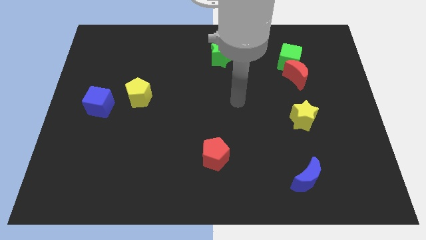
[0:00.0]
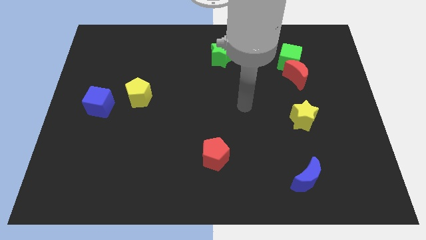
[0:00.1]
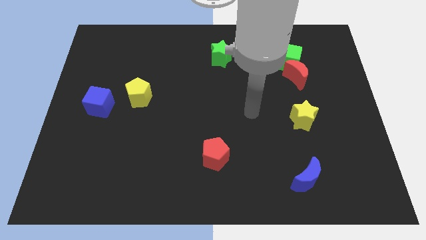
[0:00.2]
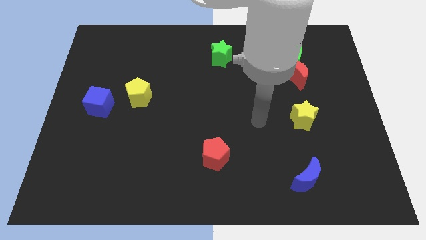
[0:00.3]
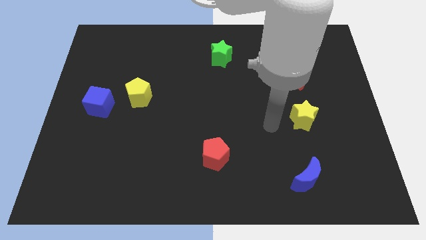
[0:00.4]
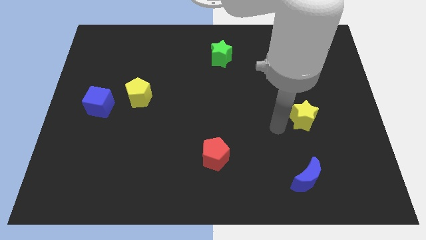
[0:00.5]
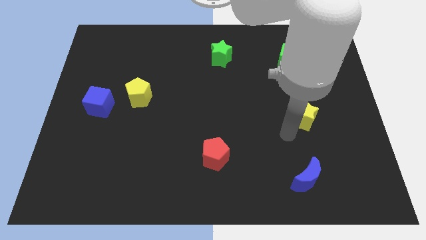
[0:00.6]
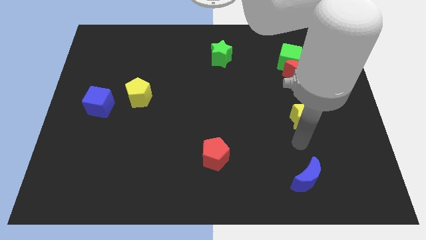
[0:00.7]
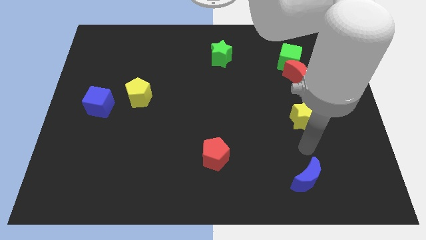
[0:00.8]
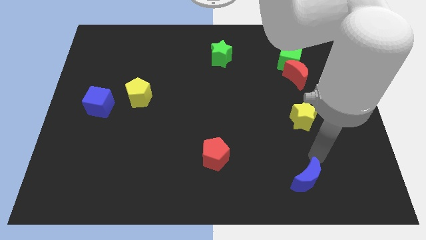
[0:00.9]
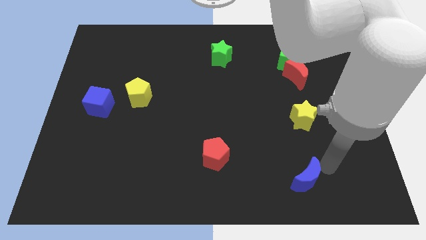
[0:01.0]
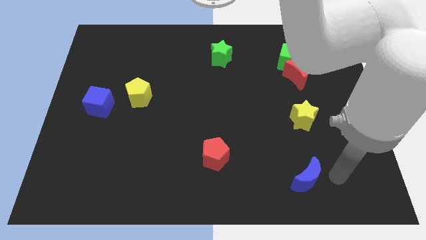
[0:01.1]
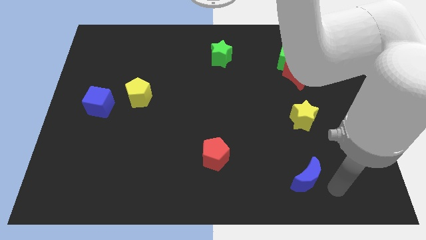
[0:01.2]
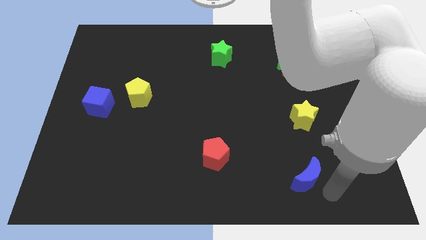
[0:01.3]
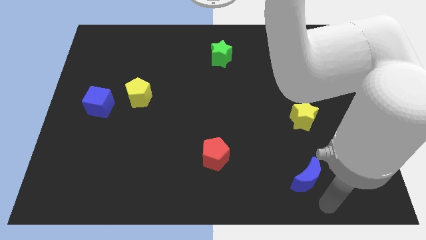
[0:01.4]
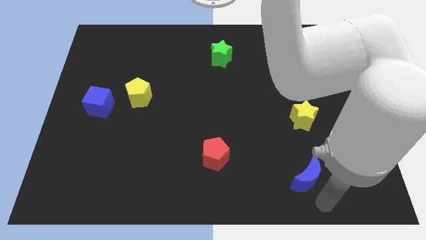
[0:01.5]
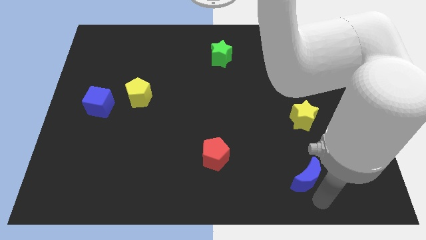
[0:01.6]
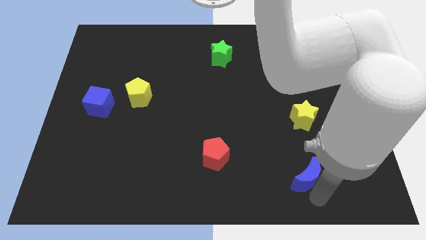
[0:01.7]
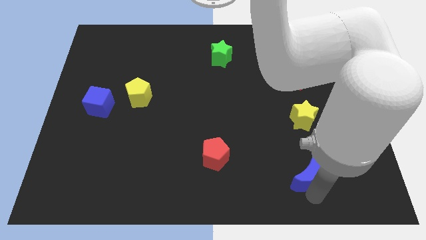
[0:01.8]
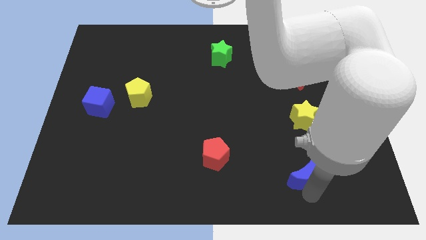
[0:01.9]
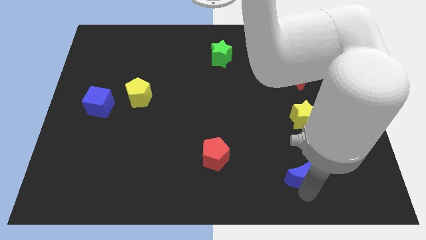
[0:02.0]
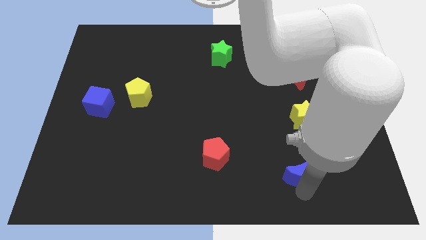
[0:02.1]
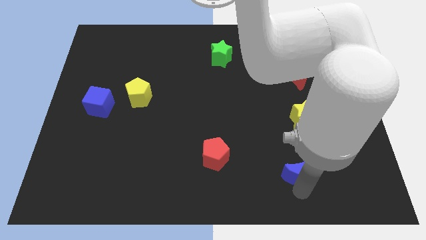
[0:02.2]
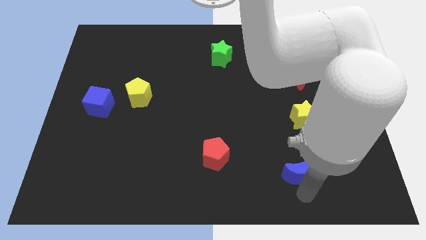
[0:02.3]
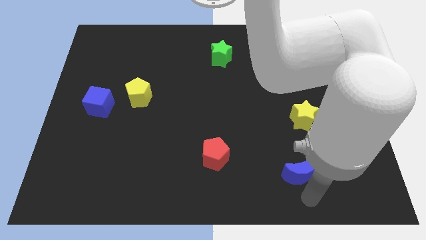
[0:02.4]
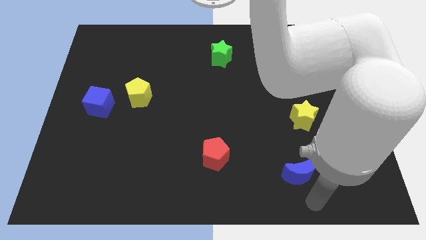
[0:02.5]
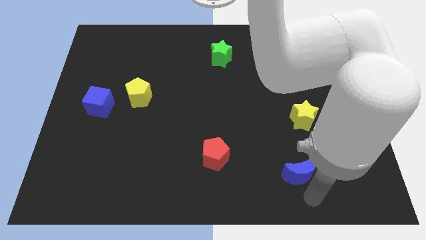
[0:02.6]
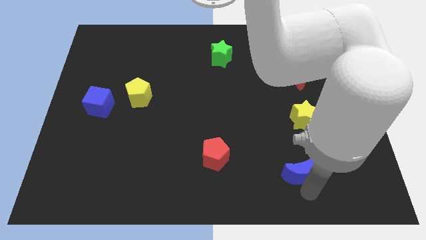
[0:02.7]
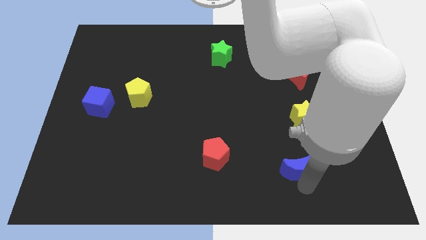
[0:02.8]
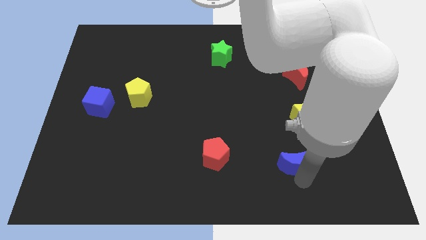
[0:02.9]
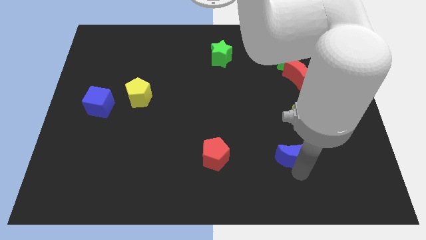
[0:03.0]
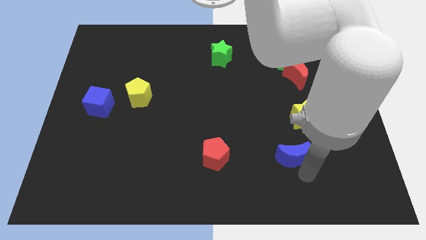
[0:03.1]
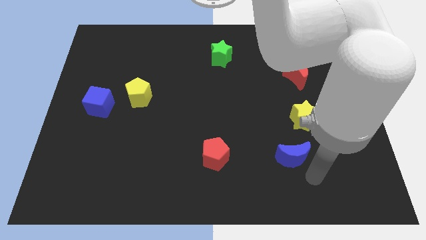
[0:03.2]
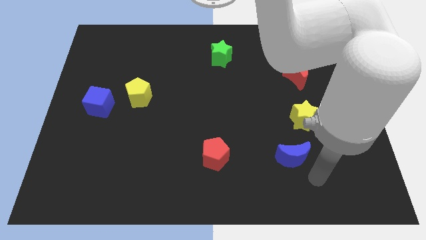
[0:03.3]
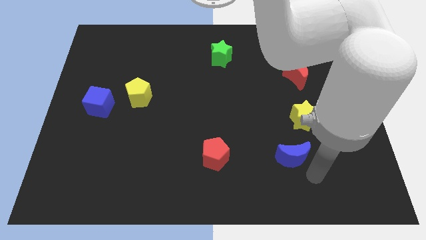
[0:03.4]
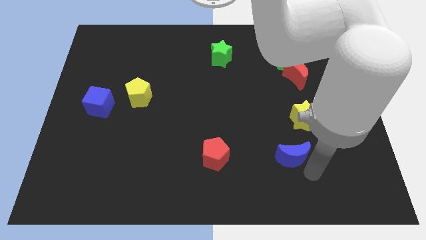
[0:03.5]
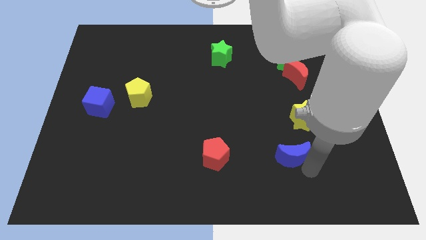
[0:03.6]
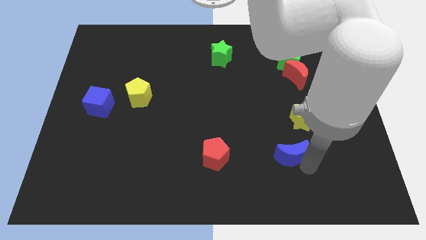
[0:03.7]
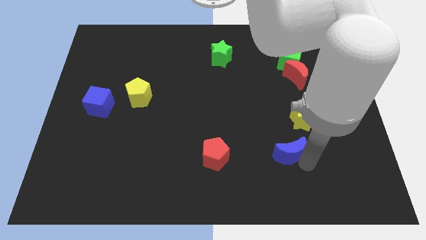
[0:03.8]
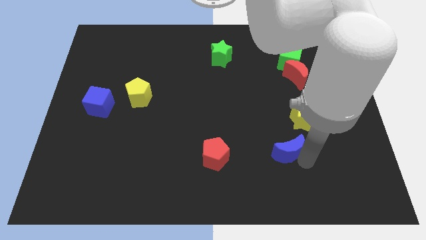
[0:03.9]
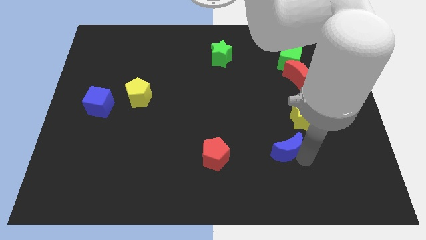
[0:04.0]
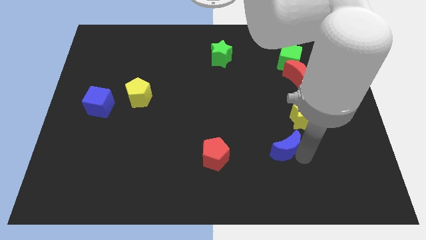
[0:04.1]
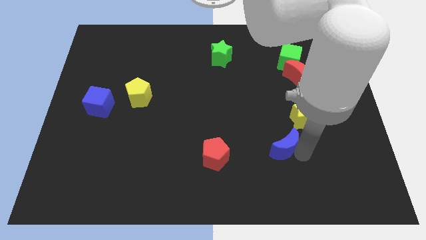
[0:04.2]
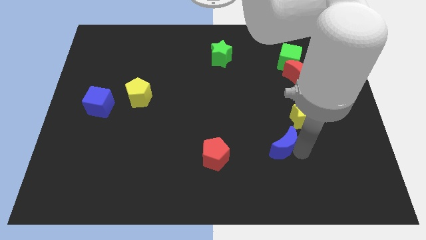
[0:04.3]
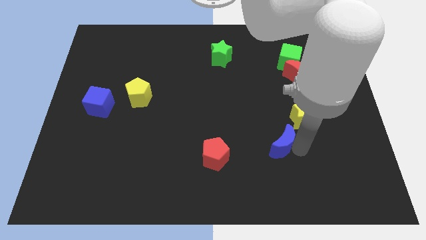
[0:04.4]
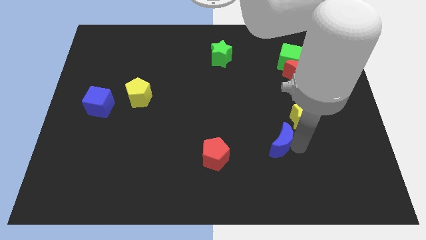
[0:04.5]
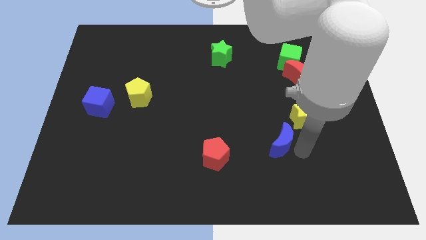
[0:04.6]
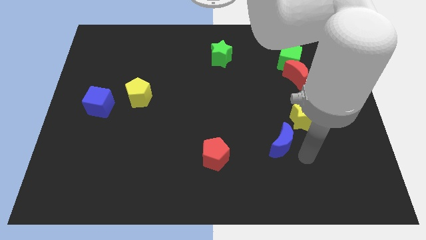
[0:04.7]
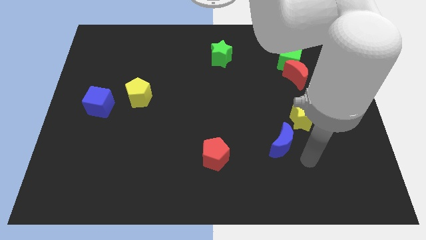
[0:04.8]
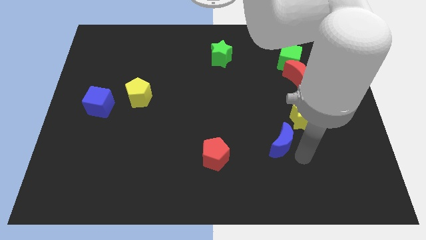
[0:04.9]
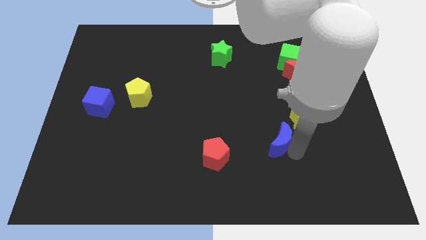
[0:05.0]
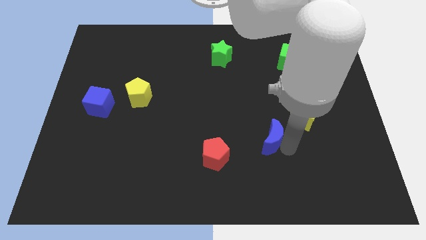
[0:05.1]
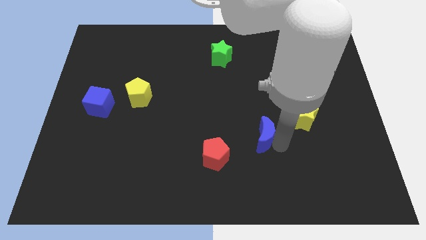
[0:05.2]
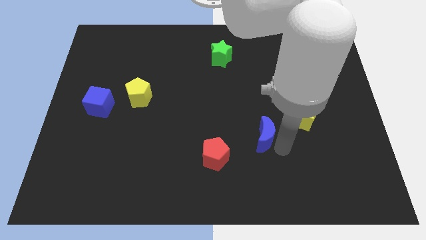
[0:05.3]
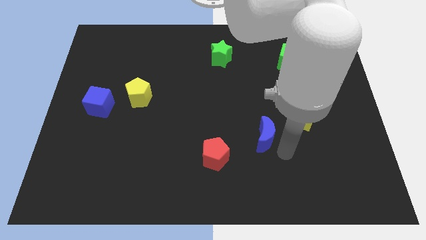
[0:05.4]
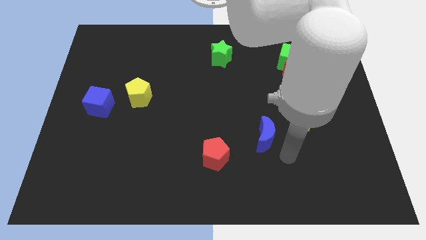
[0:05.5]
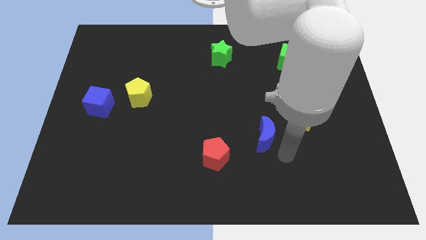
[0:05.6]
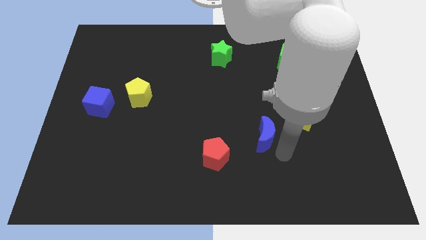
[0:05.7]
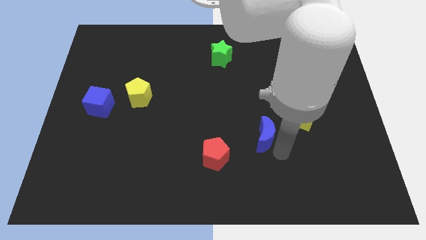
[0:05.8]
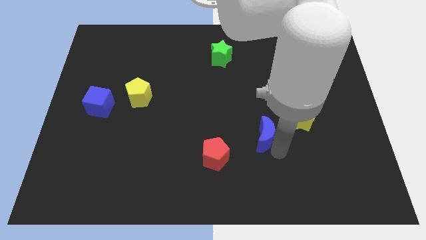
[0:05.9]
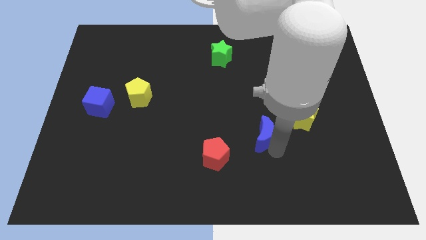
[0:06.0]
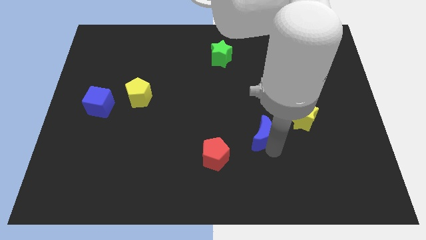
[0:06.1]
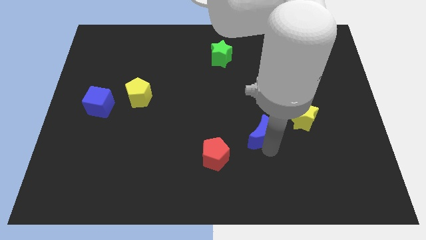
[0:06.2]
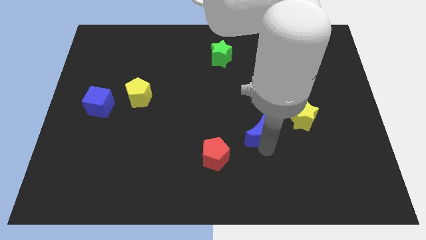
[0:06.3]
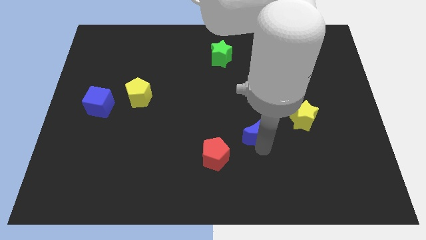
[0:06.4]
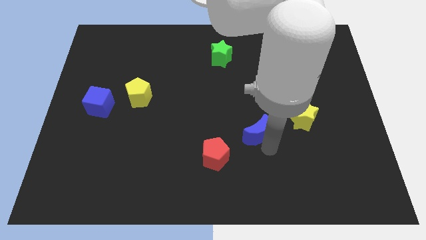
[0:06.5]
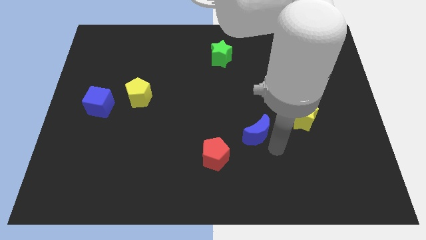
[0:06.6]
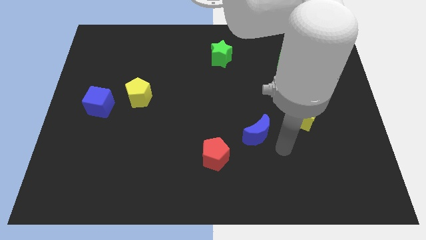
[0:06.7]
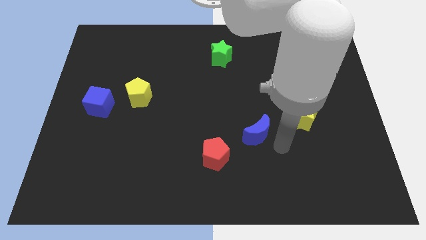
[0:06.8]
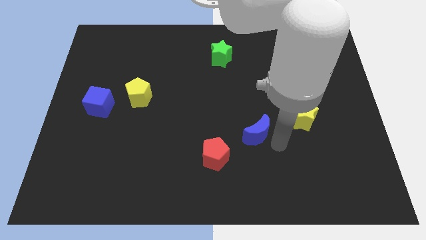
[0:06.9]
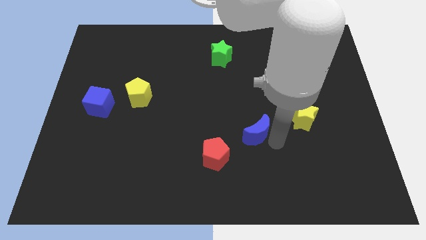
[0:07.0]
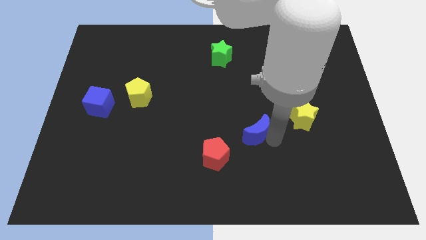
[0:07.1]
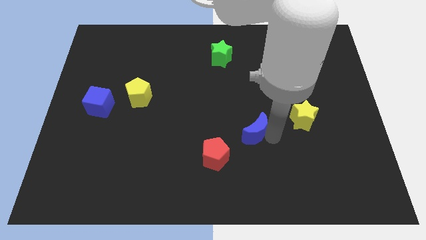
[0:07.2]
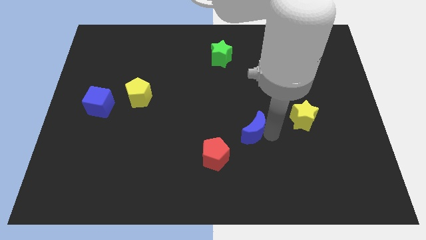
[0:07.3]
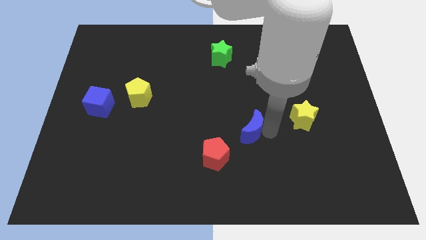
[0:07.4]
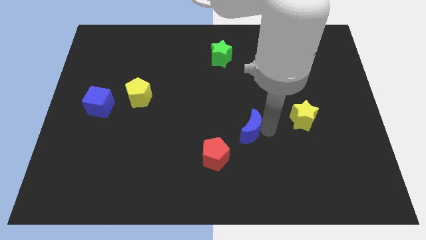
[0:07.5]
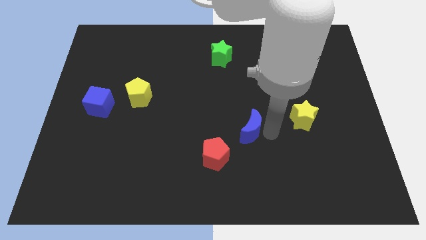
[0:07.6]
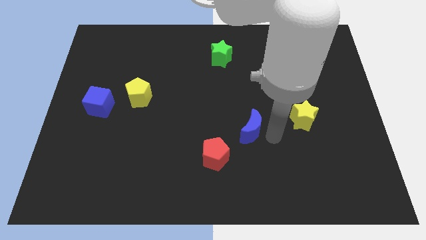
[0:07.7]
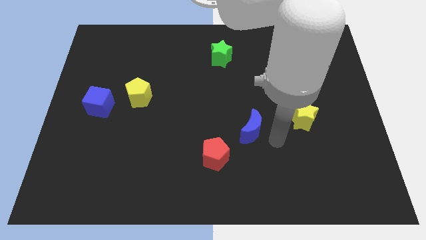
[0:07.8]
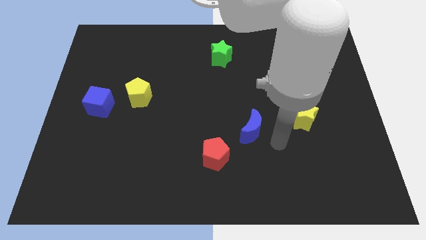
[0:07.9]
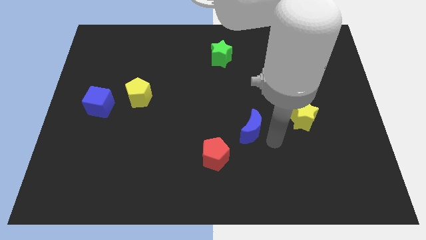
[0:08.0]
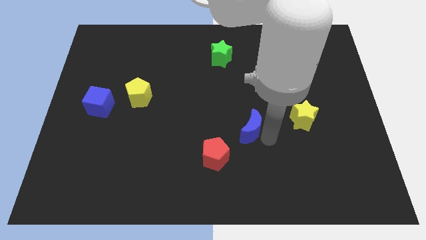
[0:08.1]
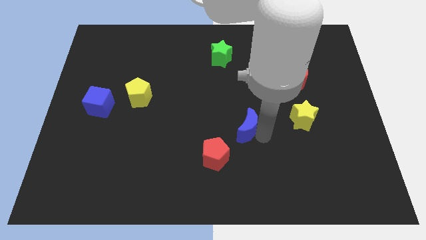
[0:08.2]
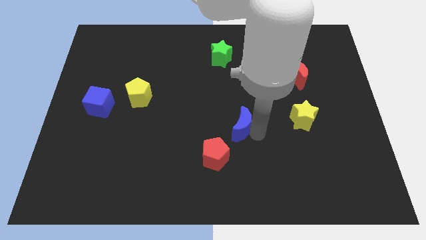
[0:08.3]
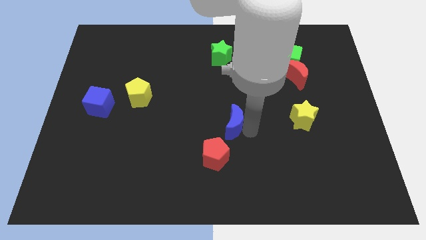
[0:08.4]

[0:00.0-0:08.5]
put the blue moon above the red pentagon
